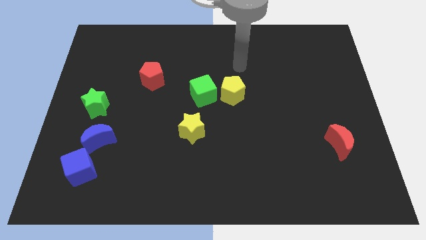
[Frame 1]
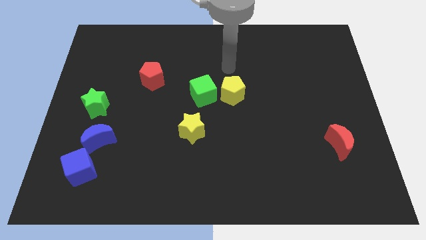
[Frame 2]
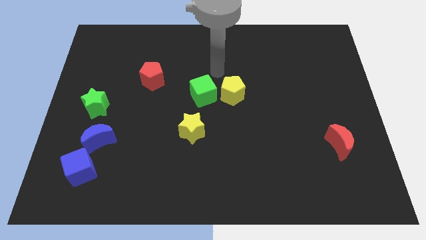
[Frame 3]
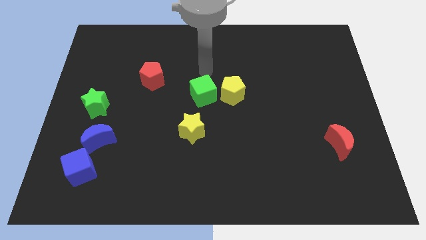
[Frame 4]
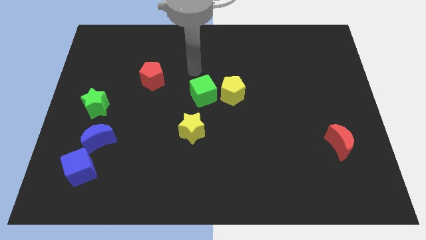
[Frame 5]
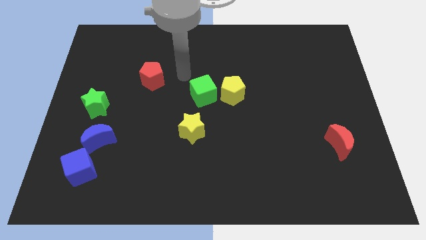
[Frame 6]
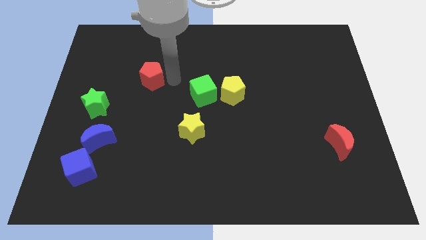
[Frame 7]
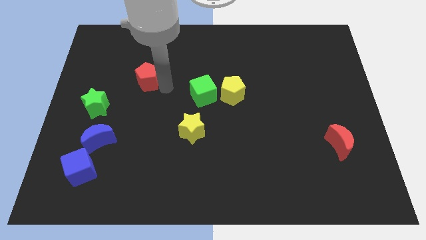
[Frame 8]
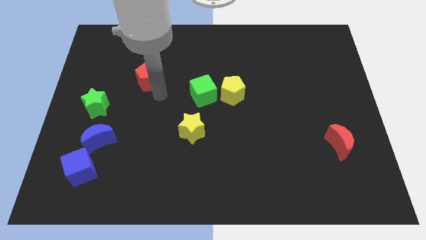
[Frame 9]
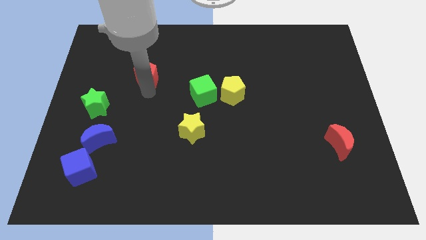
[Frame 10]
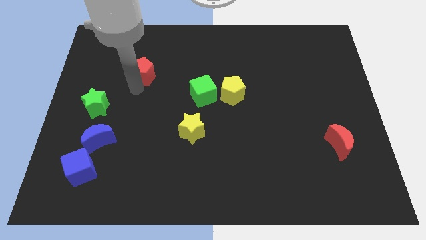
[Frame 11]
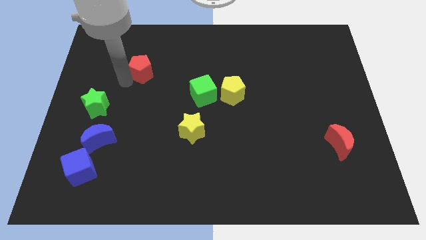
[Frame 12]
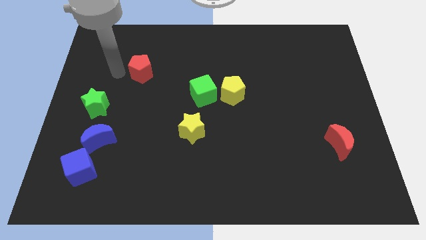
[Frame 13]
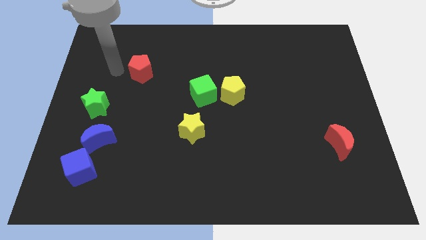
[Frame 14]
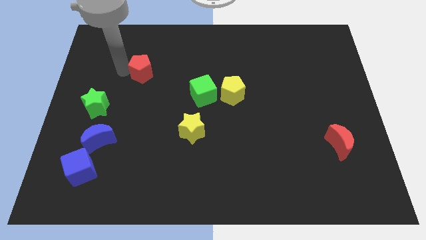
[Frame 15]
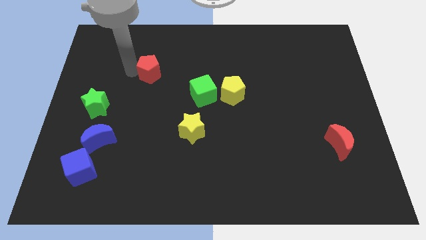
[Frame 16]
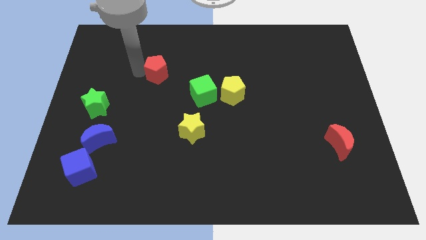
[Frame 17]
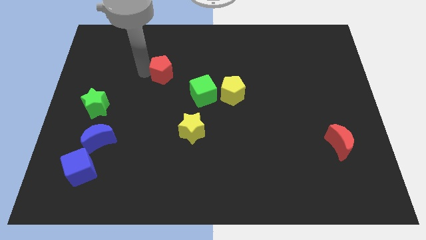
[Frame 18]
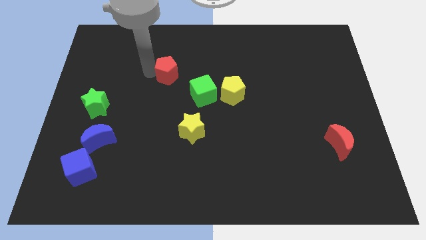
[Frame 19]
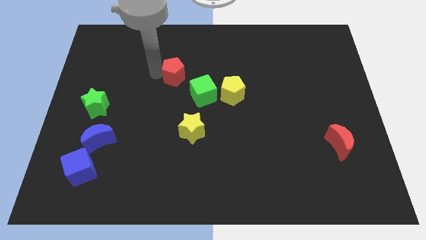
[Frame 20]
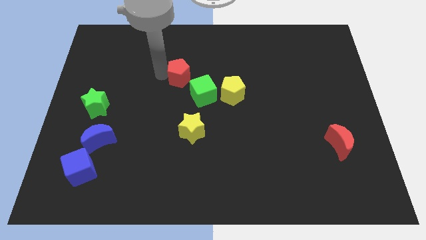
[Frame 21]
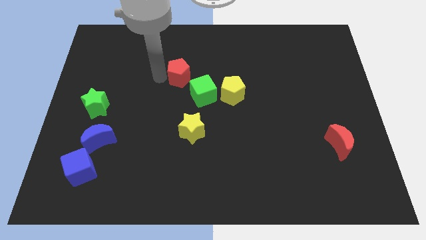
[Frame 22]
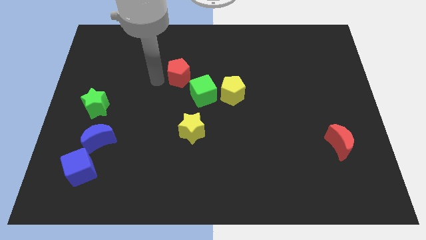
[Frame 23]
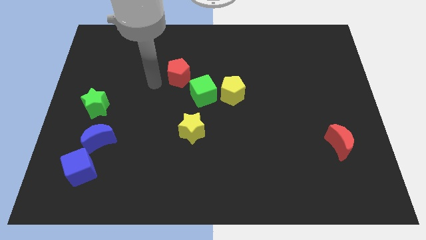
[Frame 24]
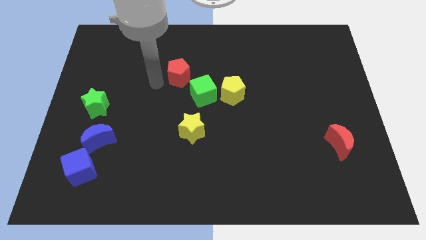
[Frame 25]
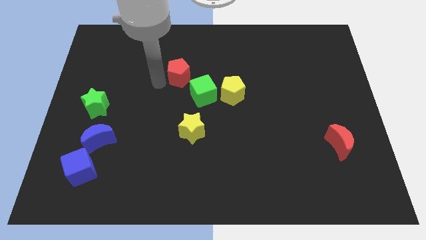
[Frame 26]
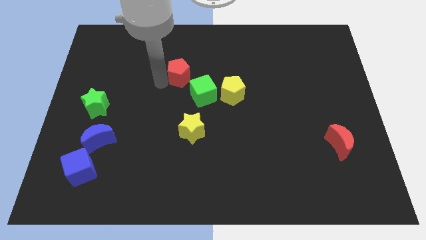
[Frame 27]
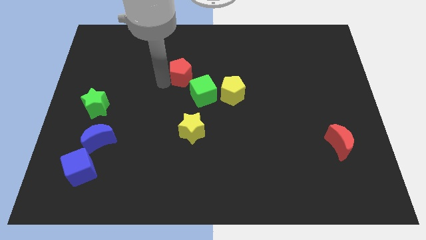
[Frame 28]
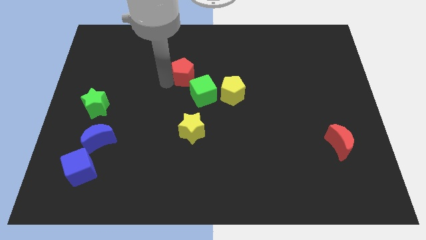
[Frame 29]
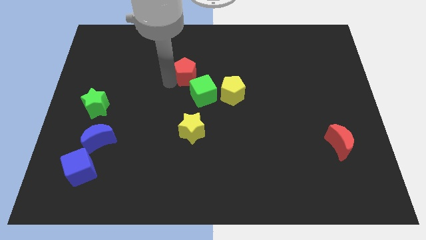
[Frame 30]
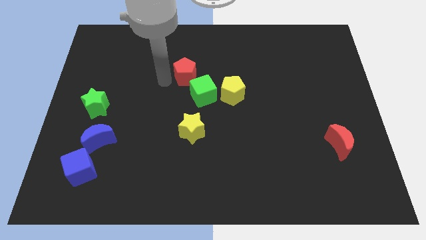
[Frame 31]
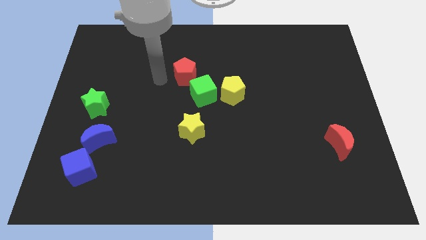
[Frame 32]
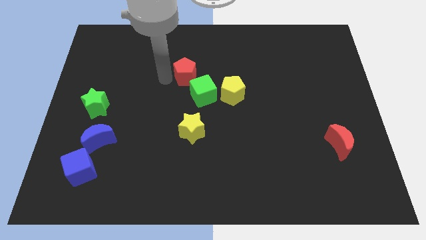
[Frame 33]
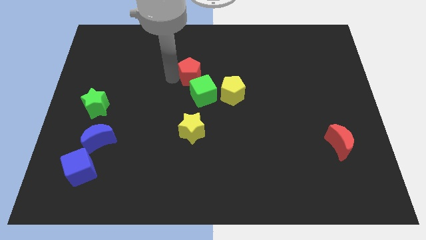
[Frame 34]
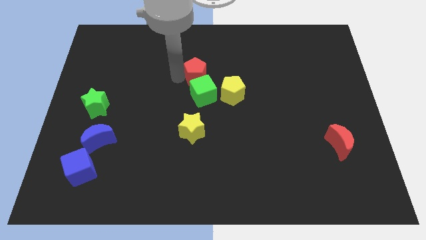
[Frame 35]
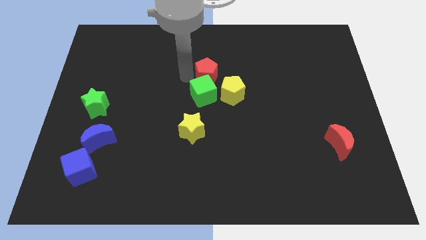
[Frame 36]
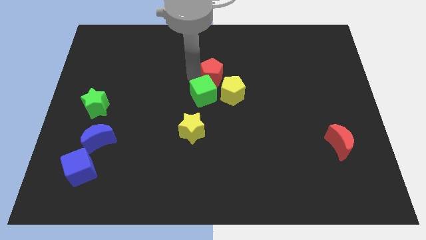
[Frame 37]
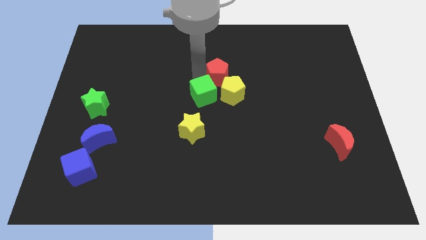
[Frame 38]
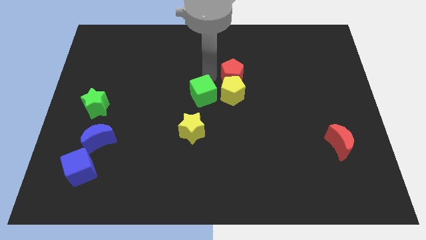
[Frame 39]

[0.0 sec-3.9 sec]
slide the red pentagon to the right

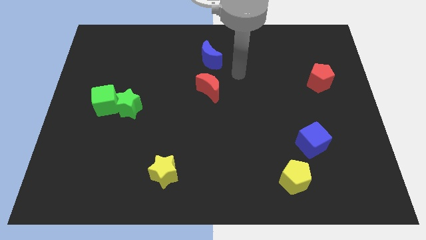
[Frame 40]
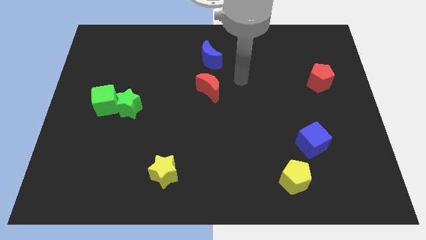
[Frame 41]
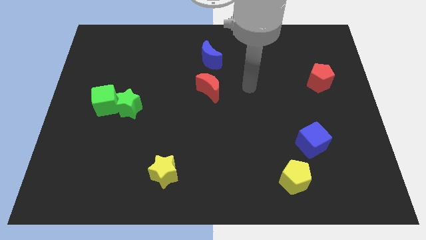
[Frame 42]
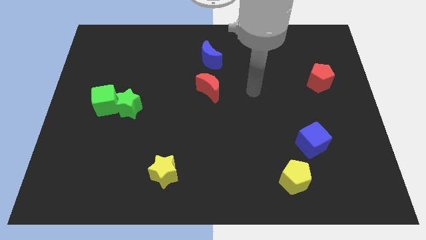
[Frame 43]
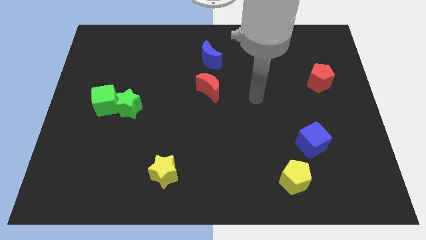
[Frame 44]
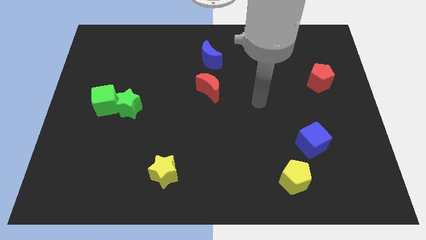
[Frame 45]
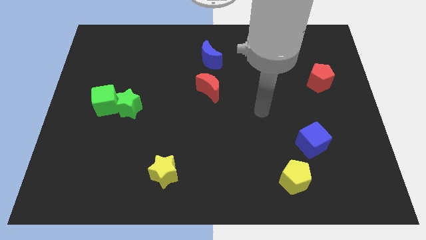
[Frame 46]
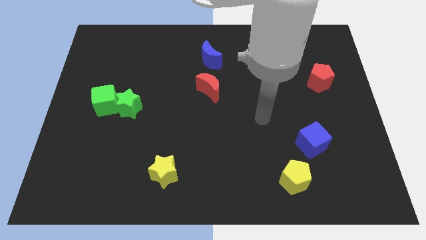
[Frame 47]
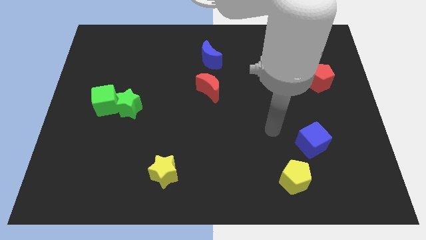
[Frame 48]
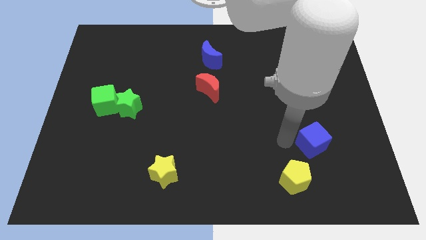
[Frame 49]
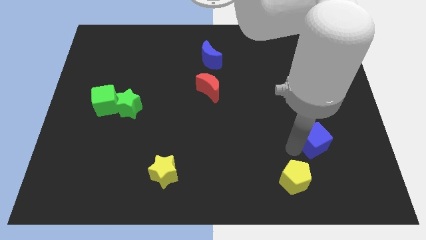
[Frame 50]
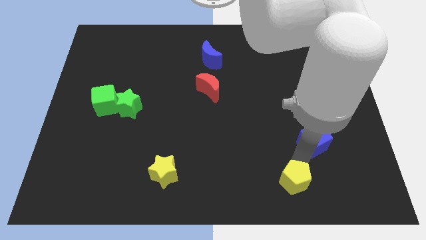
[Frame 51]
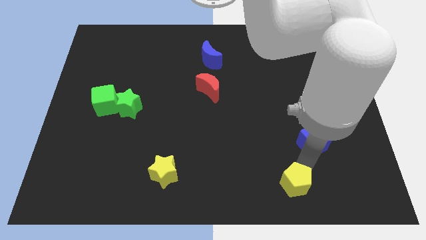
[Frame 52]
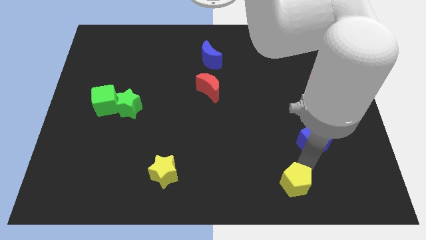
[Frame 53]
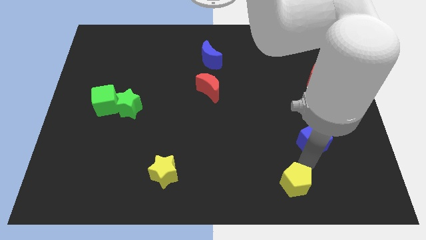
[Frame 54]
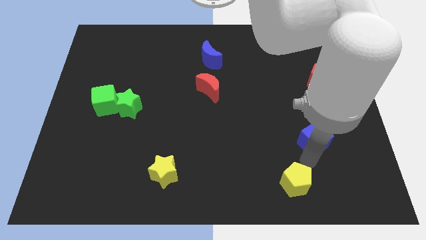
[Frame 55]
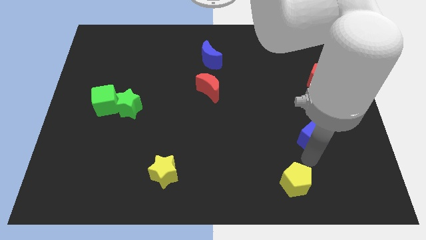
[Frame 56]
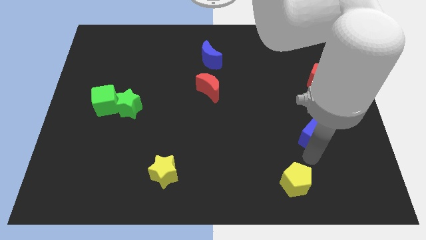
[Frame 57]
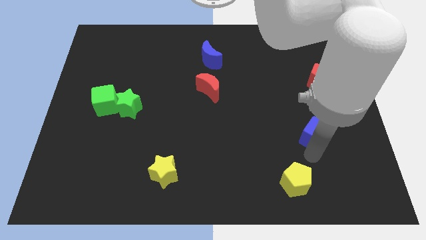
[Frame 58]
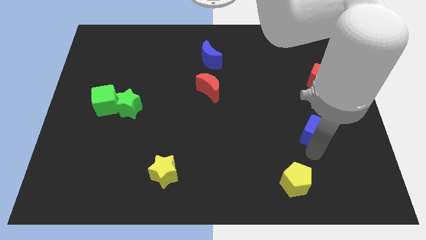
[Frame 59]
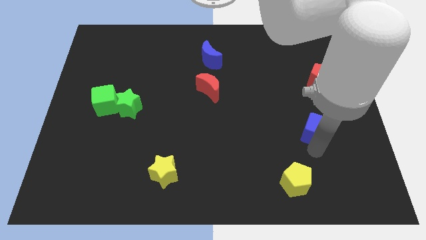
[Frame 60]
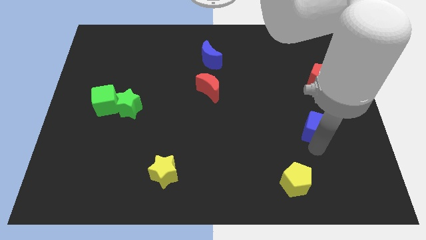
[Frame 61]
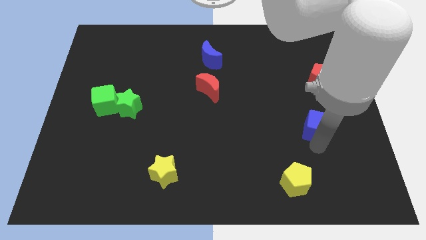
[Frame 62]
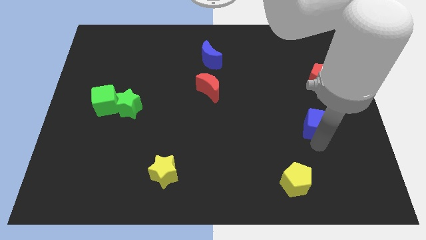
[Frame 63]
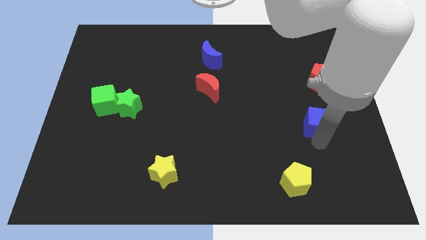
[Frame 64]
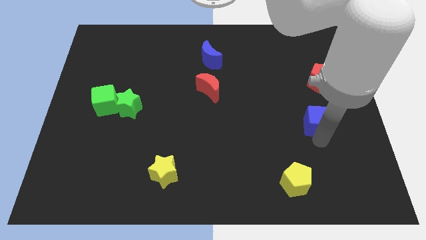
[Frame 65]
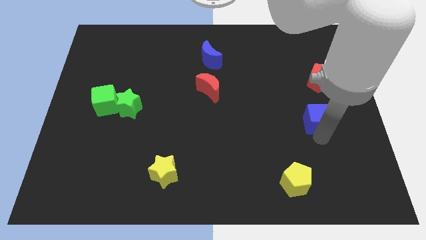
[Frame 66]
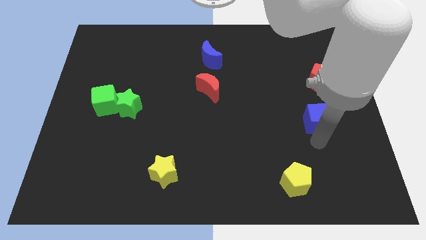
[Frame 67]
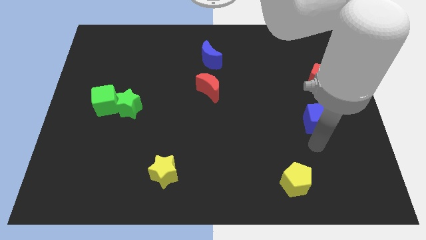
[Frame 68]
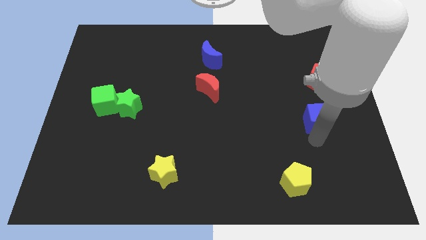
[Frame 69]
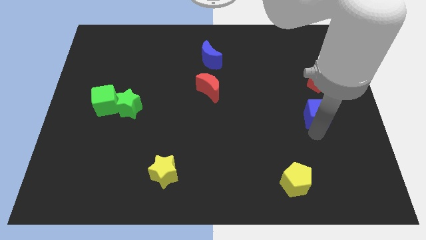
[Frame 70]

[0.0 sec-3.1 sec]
slightly move the blue cube upwards

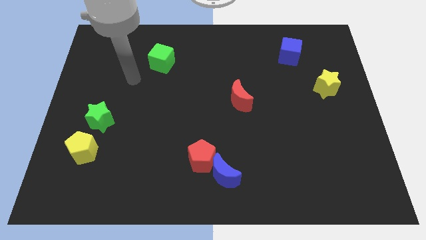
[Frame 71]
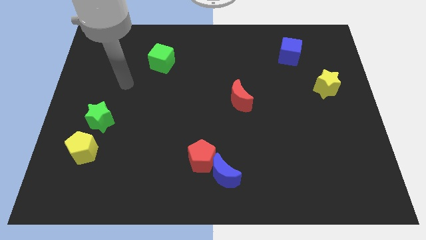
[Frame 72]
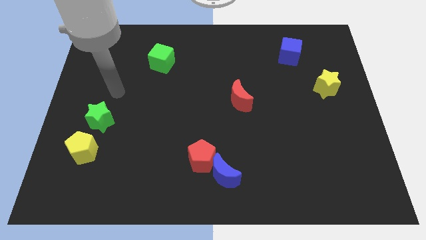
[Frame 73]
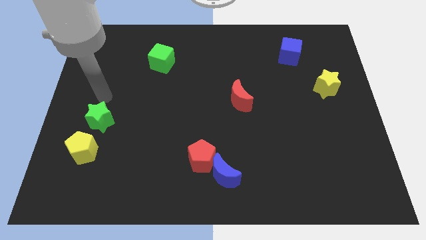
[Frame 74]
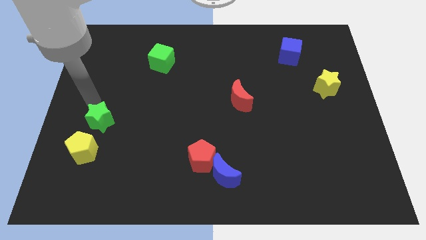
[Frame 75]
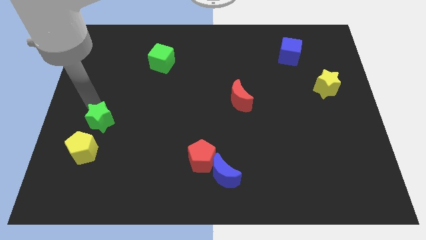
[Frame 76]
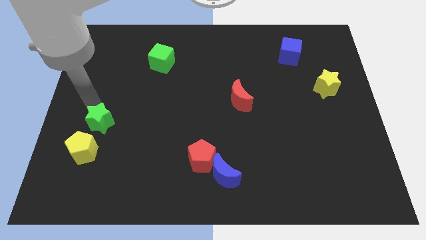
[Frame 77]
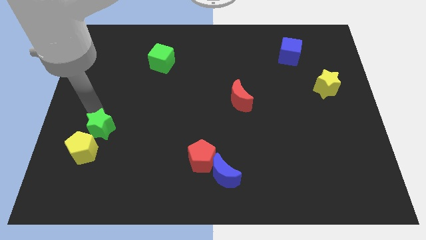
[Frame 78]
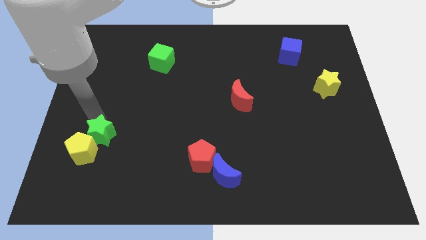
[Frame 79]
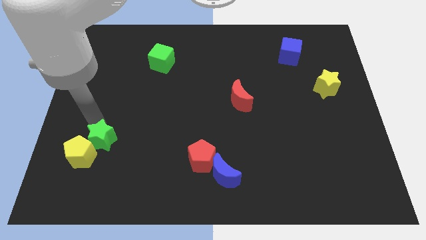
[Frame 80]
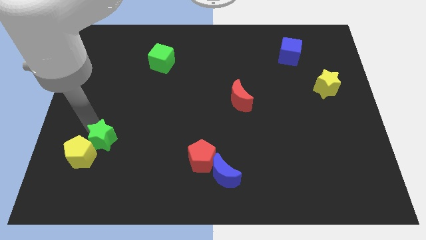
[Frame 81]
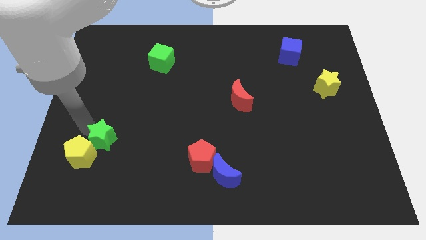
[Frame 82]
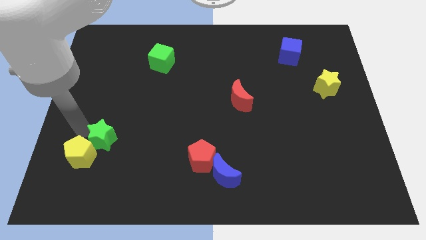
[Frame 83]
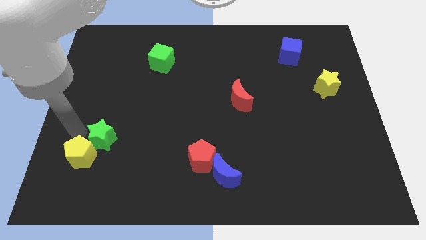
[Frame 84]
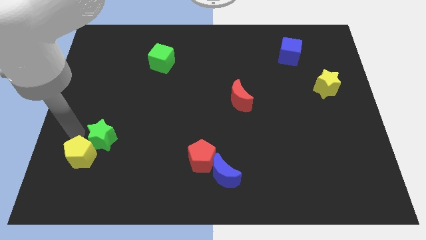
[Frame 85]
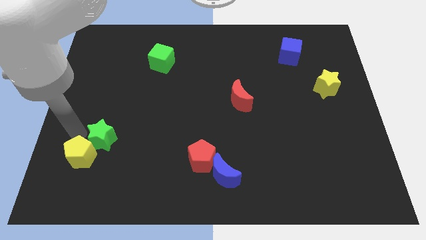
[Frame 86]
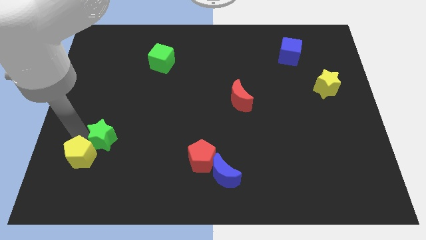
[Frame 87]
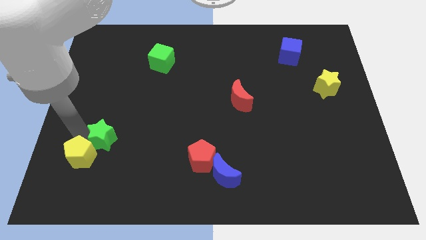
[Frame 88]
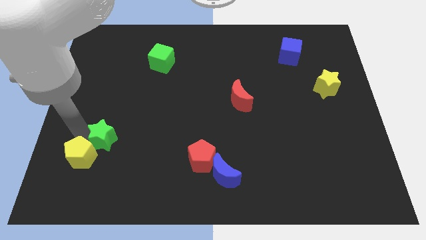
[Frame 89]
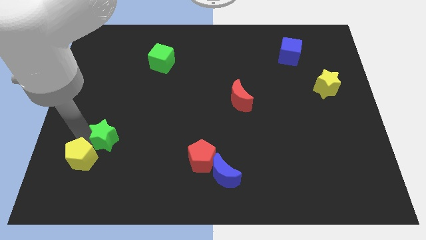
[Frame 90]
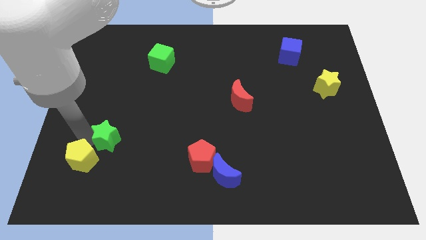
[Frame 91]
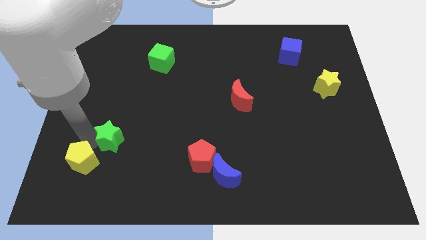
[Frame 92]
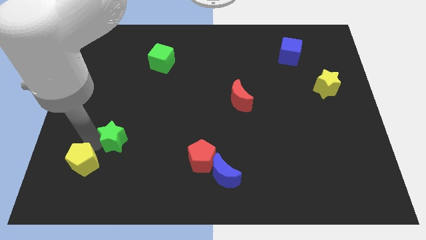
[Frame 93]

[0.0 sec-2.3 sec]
slide the green star a little bit downwards and to the right diagonally
